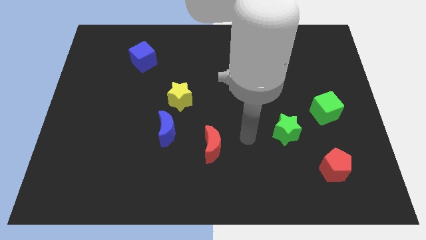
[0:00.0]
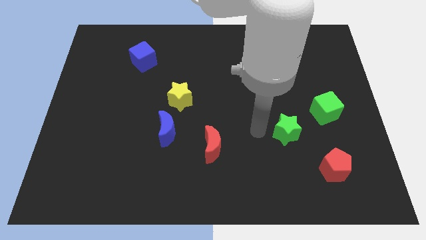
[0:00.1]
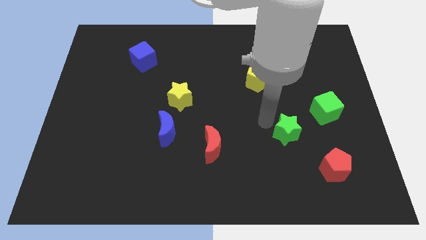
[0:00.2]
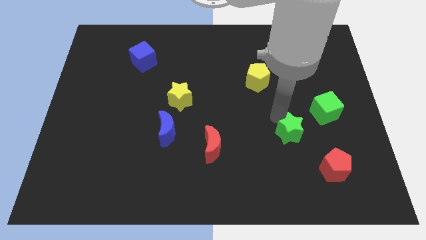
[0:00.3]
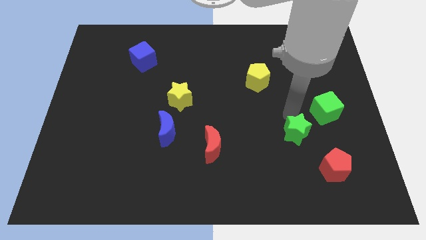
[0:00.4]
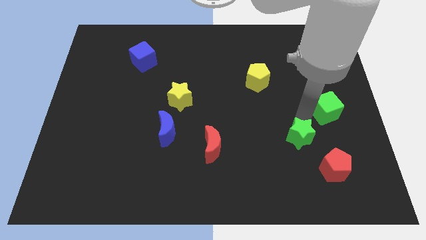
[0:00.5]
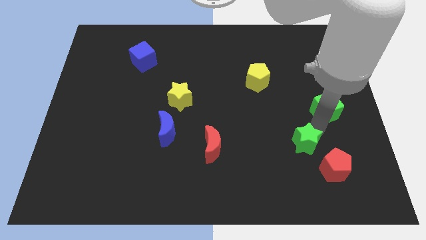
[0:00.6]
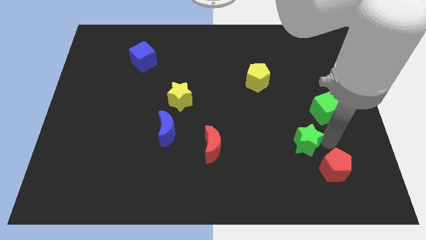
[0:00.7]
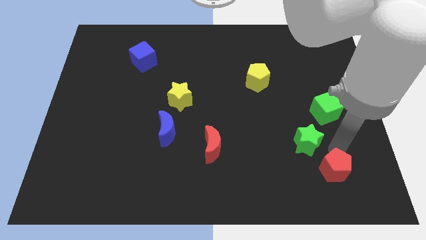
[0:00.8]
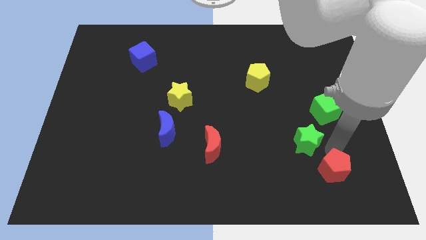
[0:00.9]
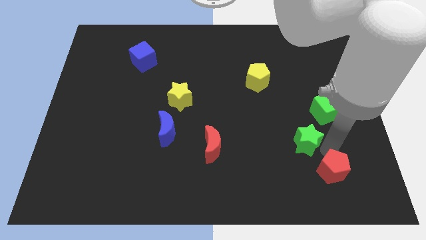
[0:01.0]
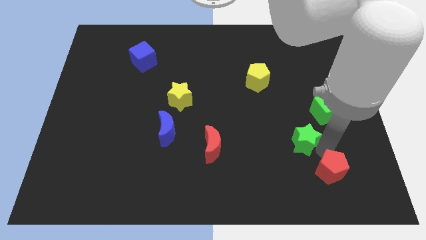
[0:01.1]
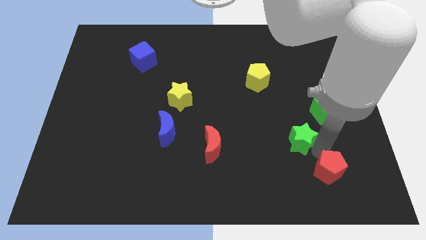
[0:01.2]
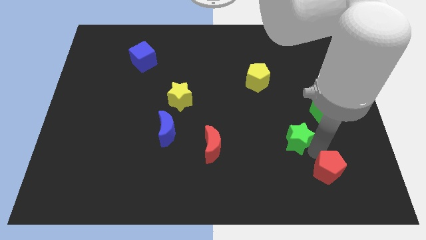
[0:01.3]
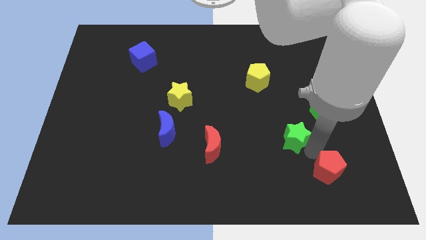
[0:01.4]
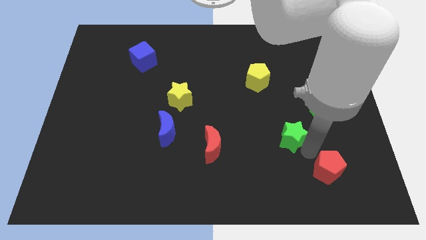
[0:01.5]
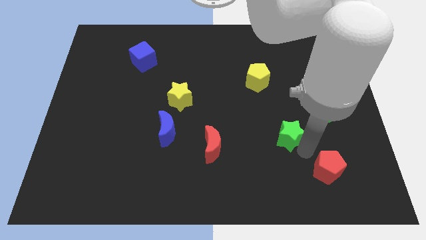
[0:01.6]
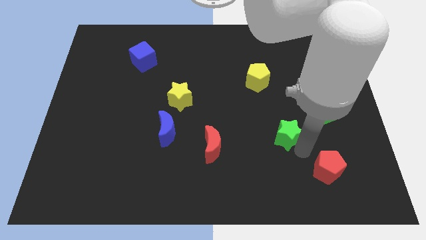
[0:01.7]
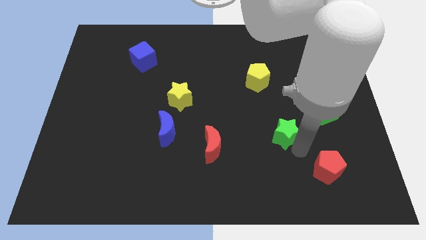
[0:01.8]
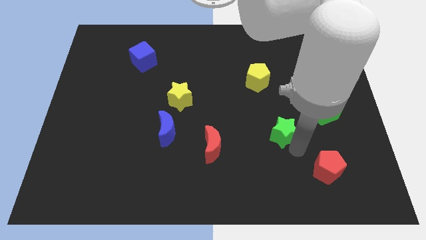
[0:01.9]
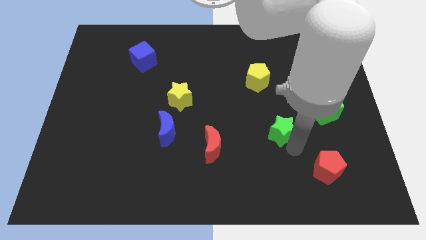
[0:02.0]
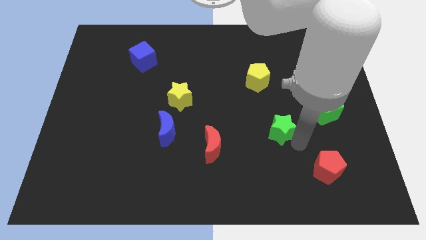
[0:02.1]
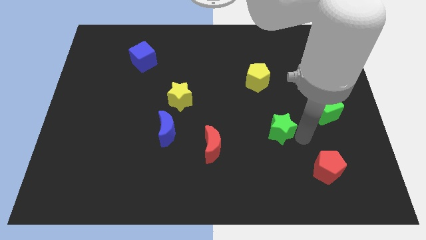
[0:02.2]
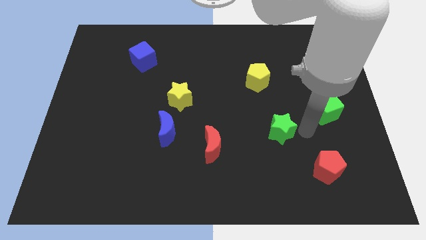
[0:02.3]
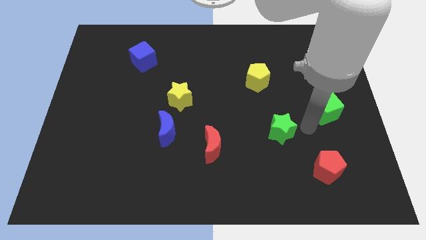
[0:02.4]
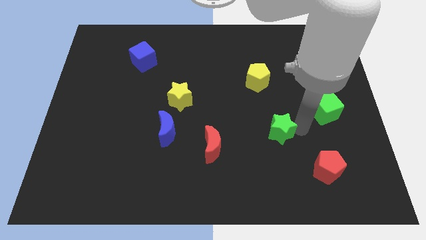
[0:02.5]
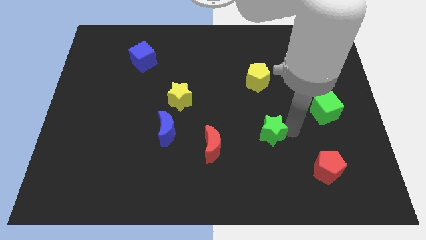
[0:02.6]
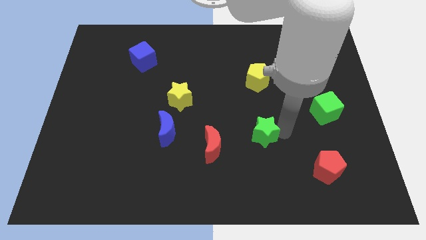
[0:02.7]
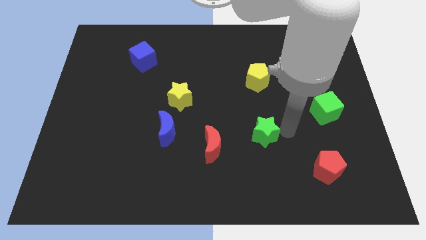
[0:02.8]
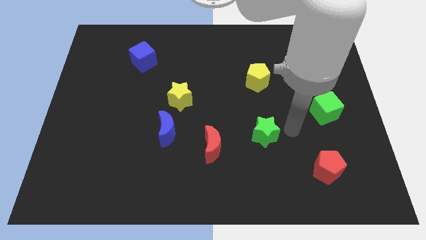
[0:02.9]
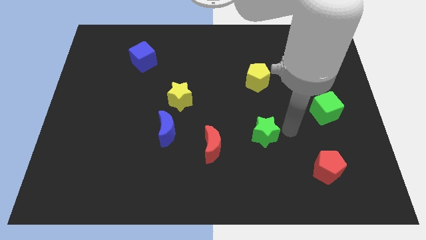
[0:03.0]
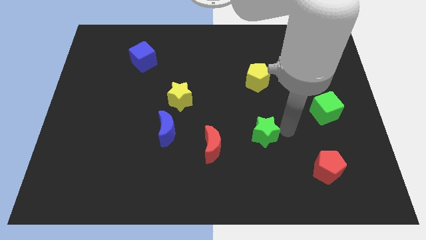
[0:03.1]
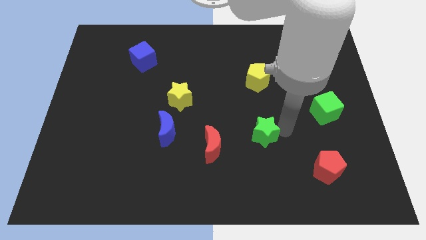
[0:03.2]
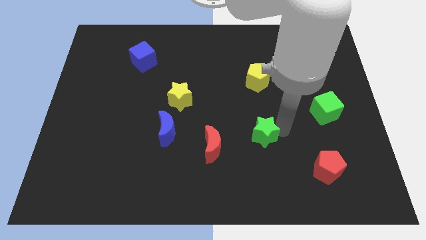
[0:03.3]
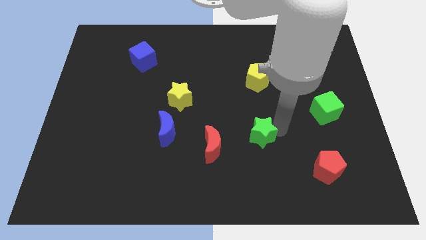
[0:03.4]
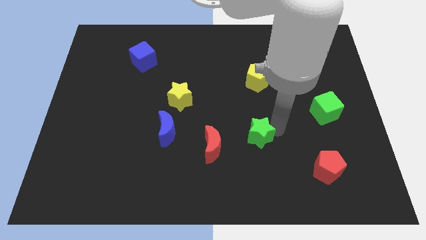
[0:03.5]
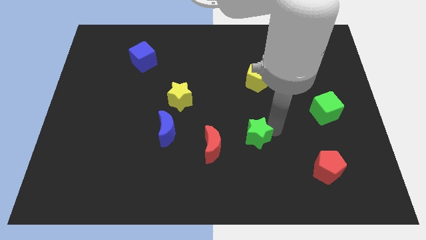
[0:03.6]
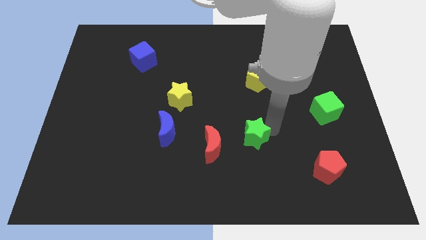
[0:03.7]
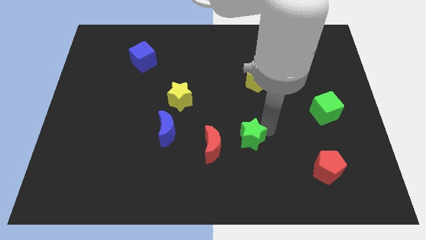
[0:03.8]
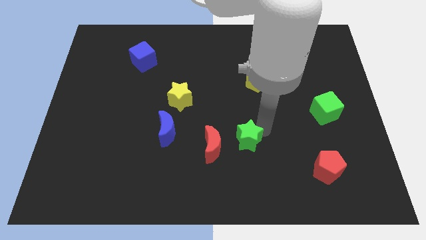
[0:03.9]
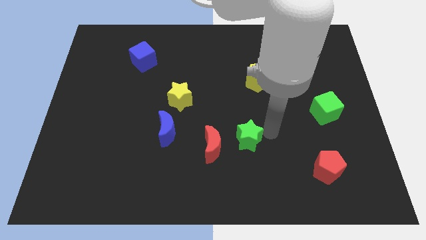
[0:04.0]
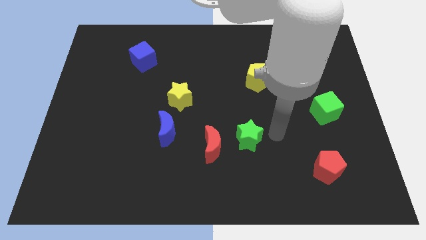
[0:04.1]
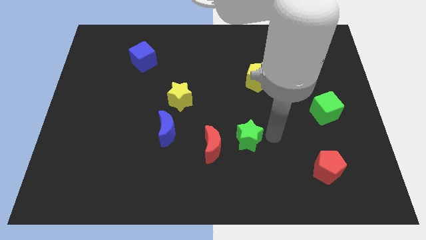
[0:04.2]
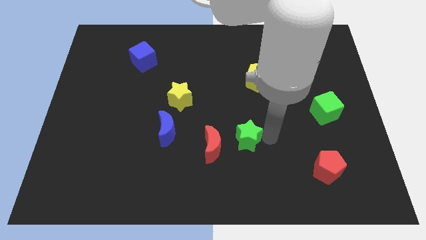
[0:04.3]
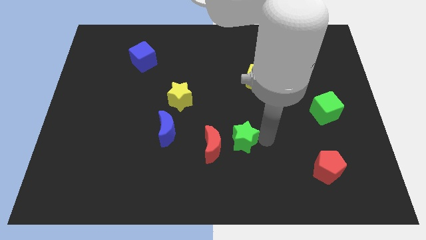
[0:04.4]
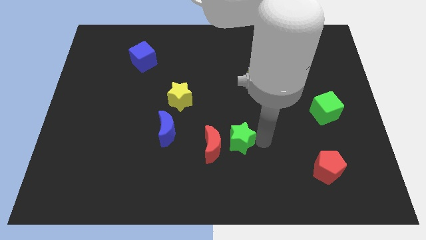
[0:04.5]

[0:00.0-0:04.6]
slide the green star towards the red moon

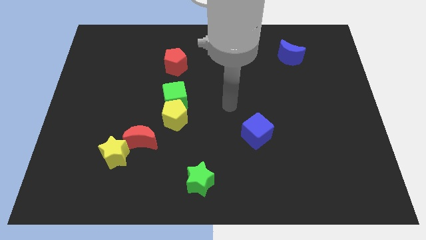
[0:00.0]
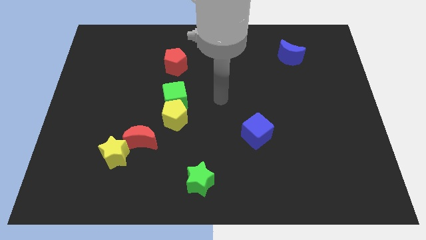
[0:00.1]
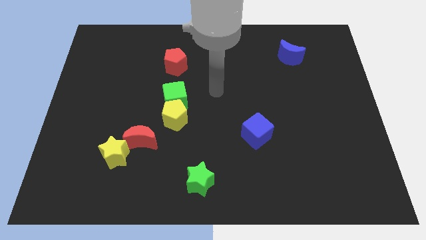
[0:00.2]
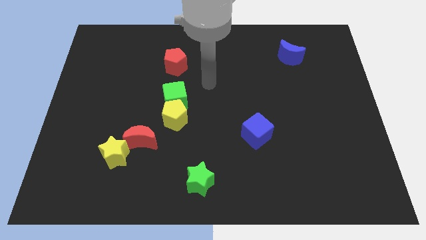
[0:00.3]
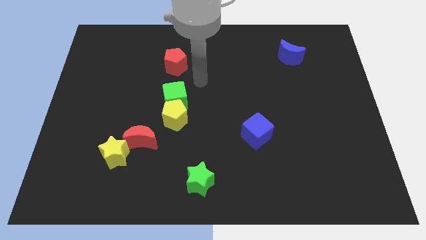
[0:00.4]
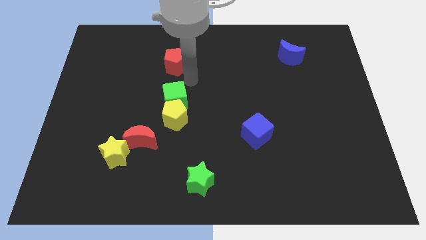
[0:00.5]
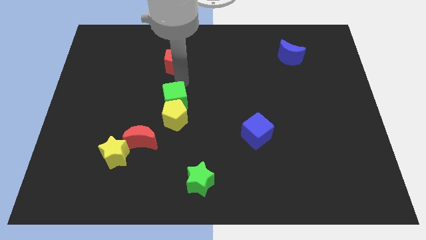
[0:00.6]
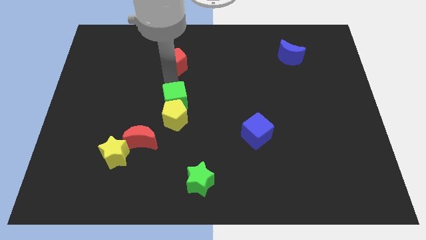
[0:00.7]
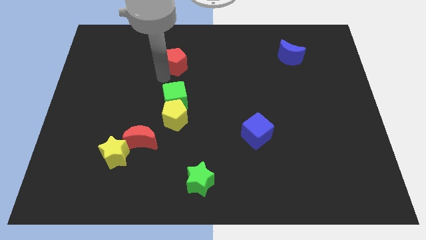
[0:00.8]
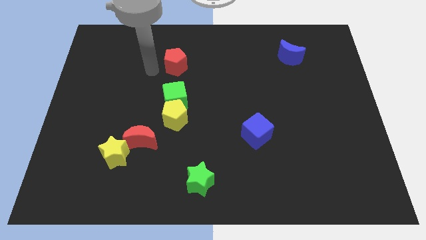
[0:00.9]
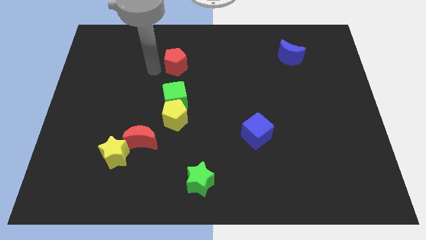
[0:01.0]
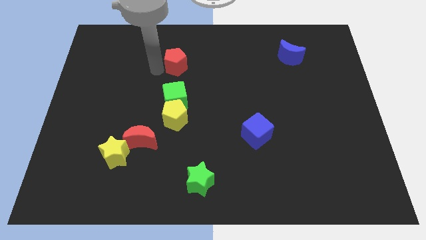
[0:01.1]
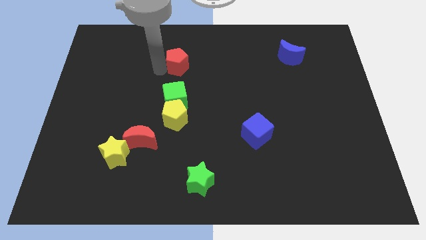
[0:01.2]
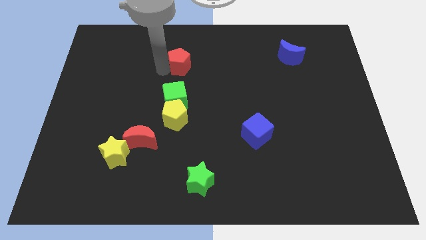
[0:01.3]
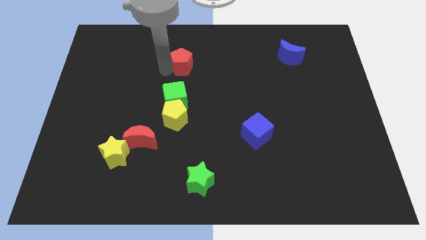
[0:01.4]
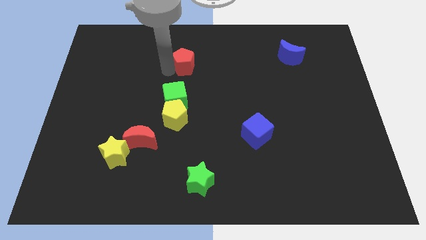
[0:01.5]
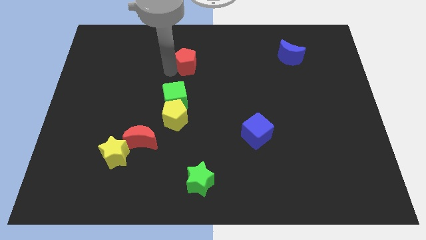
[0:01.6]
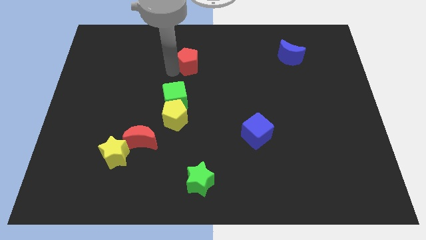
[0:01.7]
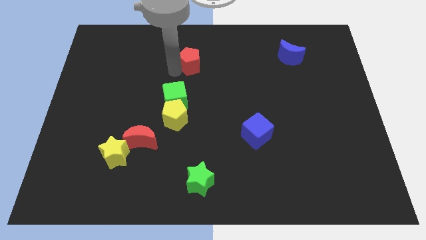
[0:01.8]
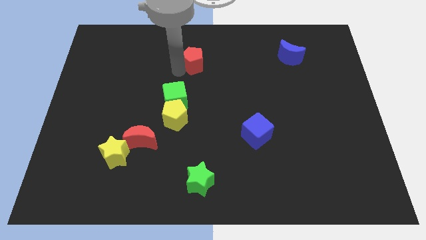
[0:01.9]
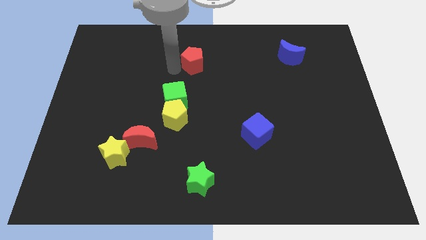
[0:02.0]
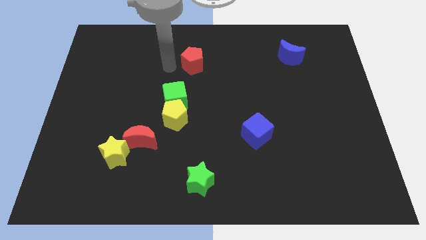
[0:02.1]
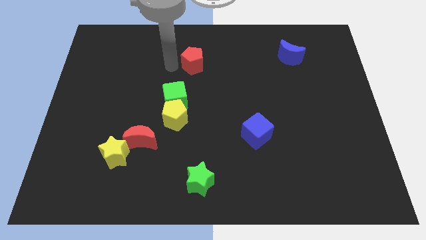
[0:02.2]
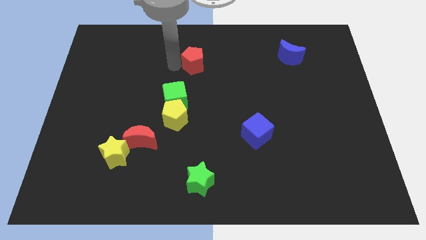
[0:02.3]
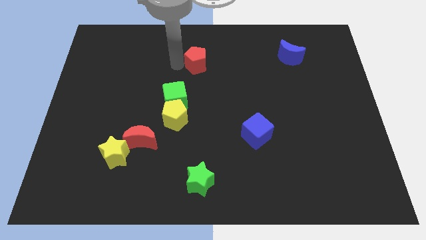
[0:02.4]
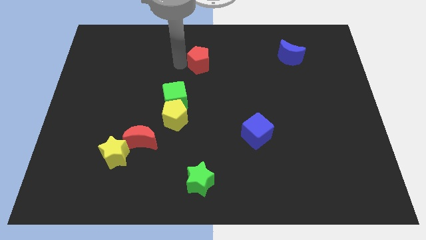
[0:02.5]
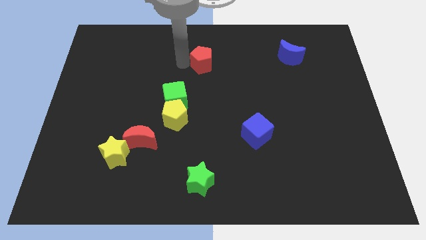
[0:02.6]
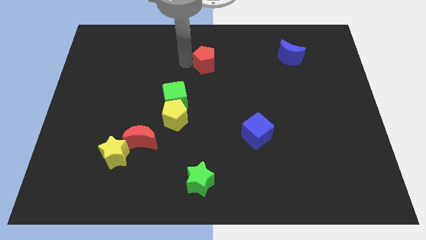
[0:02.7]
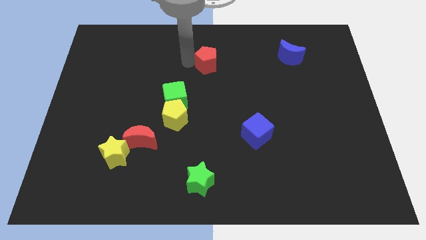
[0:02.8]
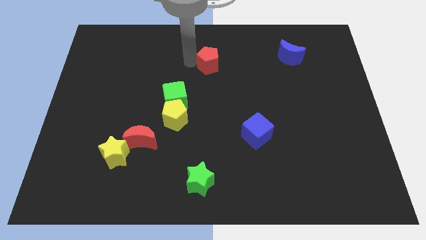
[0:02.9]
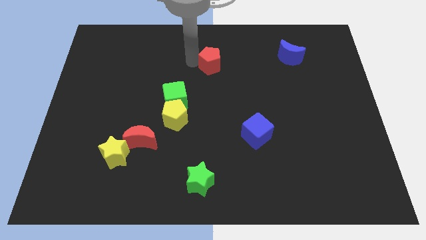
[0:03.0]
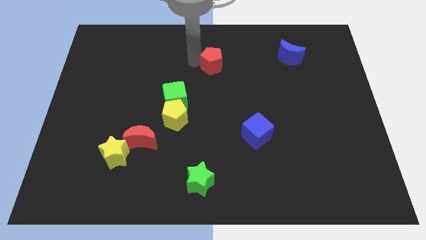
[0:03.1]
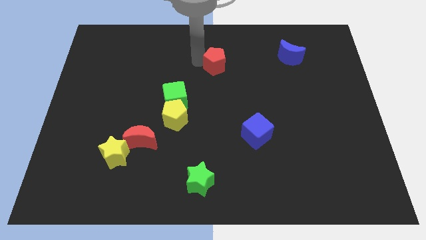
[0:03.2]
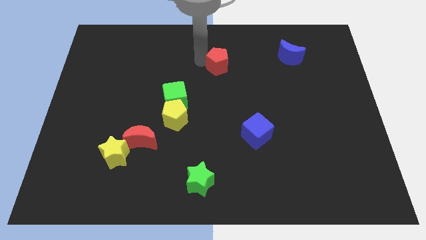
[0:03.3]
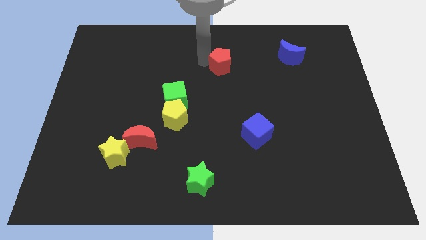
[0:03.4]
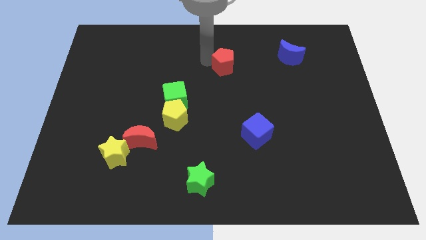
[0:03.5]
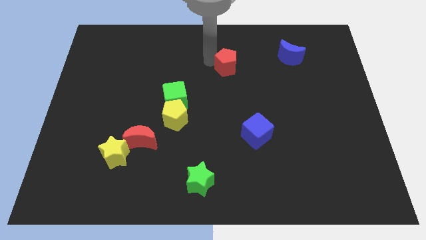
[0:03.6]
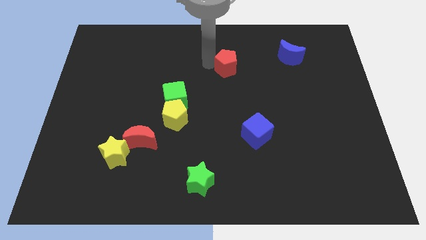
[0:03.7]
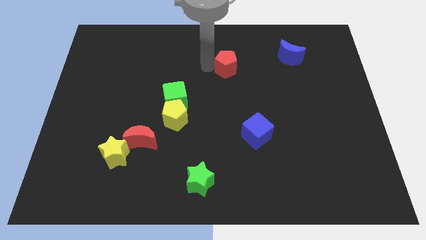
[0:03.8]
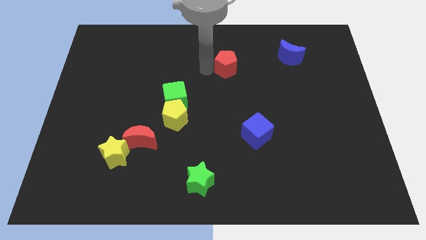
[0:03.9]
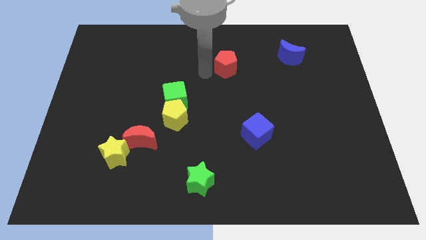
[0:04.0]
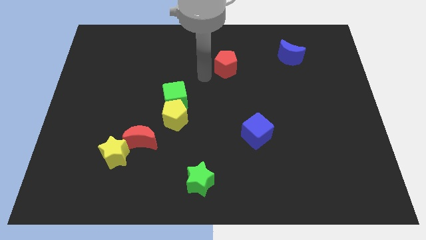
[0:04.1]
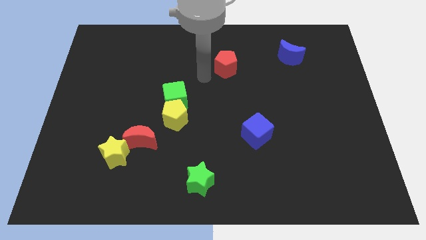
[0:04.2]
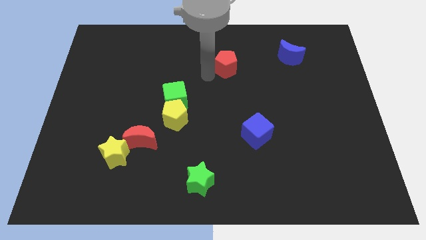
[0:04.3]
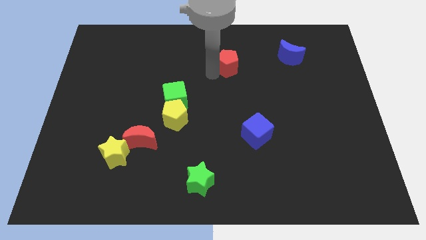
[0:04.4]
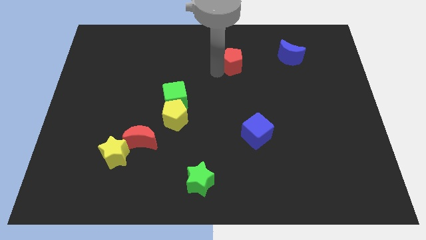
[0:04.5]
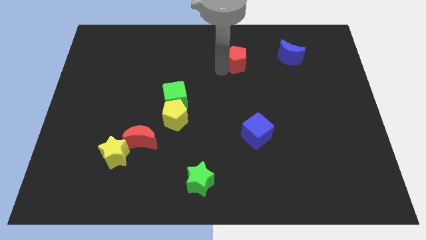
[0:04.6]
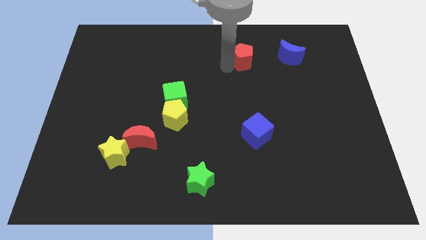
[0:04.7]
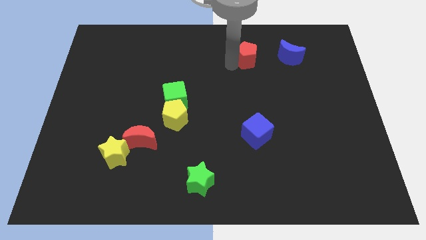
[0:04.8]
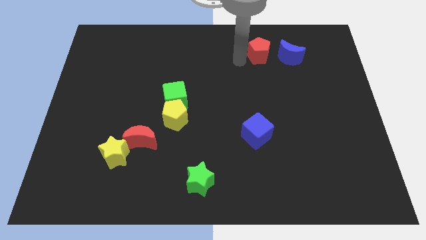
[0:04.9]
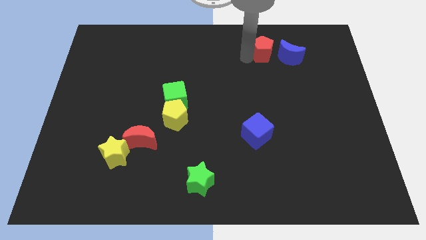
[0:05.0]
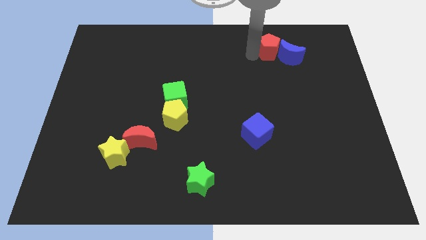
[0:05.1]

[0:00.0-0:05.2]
push the red pentagon to the blue moon
